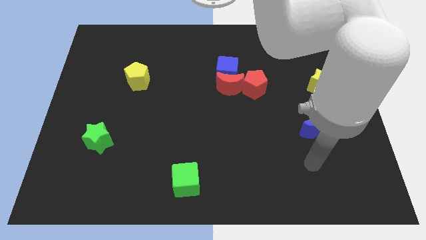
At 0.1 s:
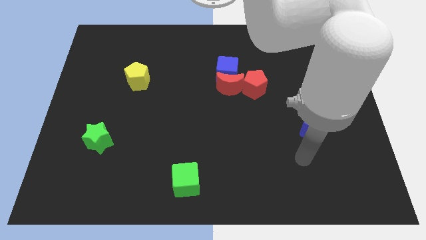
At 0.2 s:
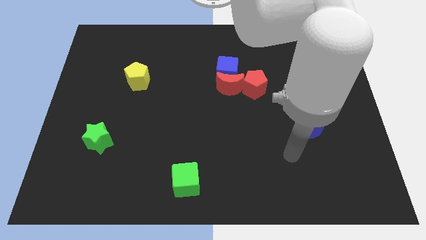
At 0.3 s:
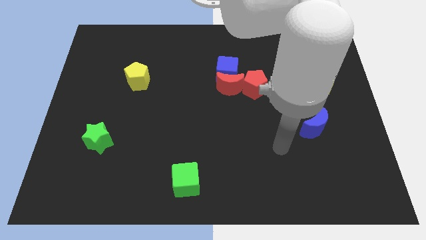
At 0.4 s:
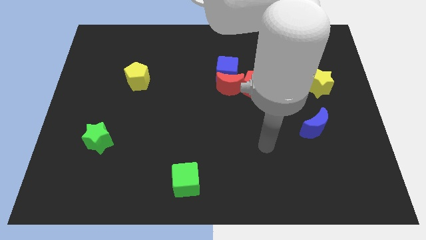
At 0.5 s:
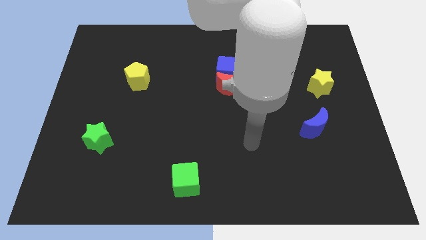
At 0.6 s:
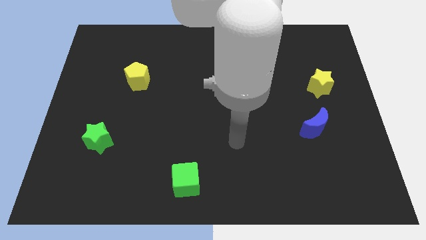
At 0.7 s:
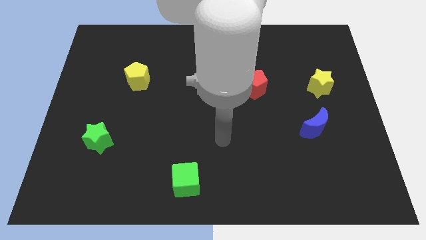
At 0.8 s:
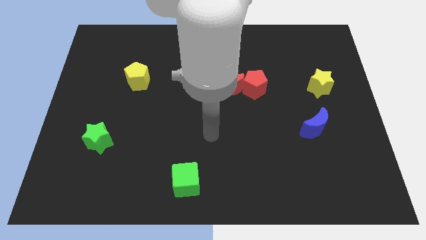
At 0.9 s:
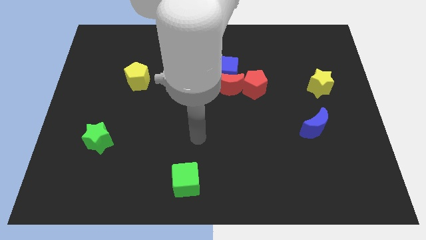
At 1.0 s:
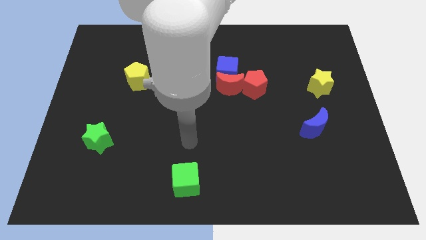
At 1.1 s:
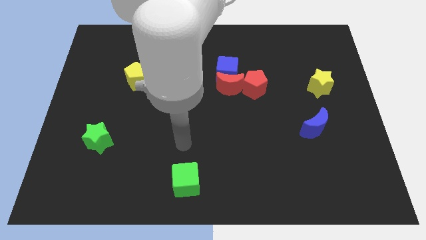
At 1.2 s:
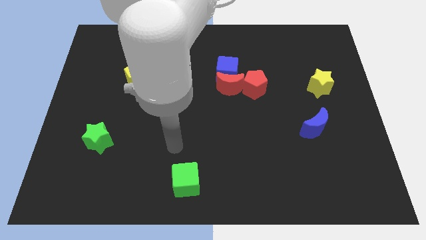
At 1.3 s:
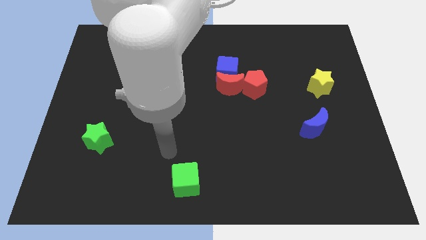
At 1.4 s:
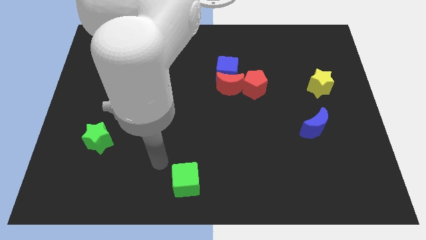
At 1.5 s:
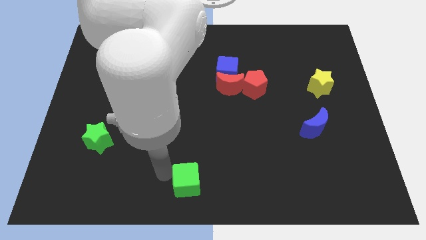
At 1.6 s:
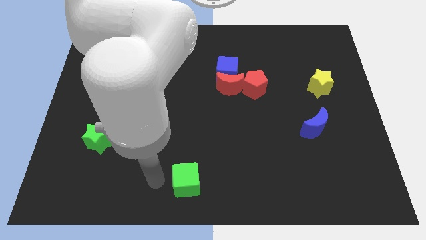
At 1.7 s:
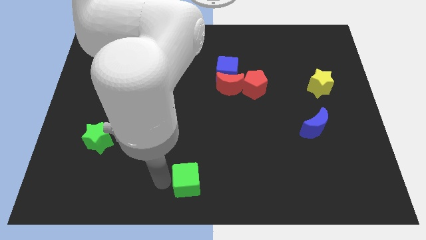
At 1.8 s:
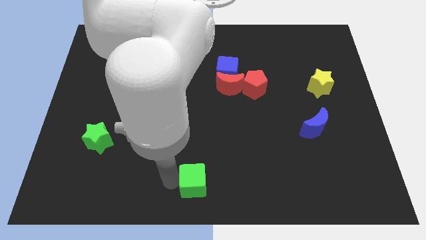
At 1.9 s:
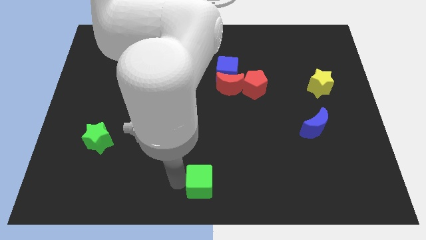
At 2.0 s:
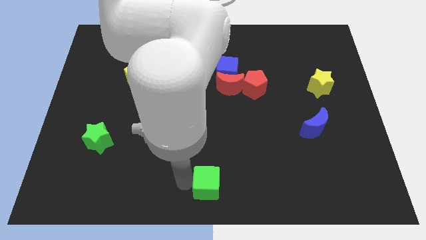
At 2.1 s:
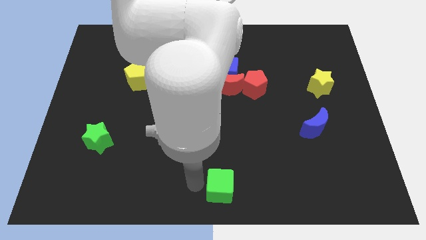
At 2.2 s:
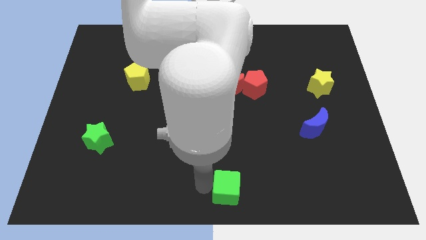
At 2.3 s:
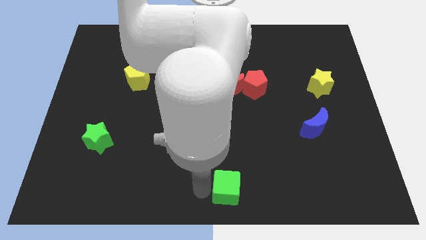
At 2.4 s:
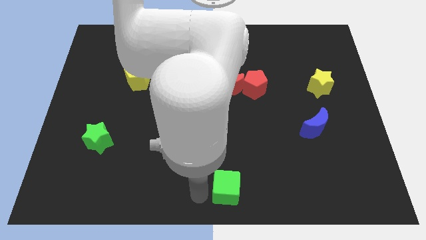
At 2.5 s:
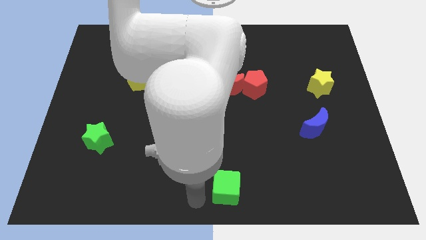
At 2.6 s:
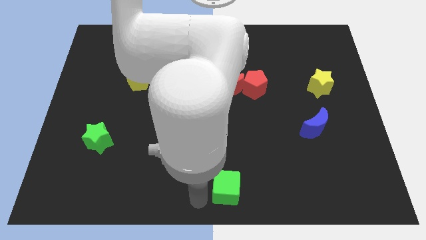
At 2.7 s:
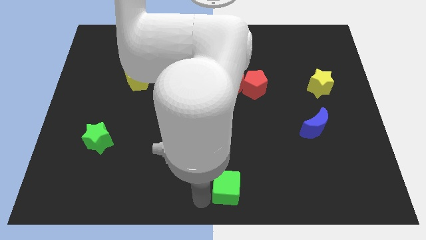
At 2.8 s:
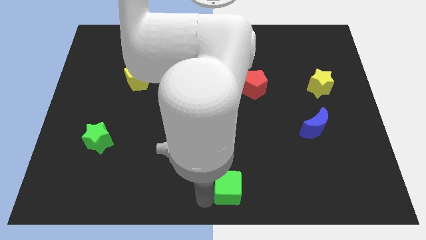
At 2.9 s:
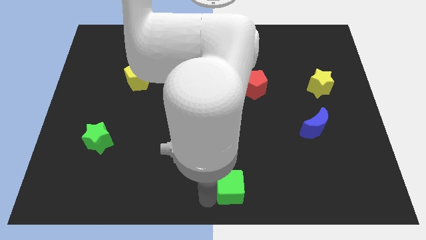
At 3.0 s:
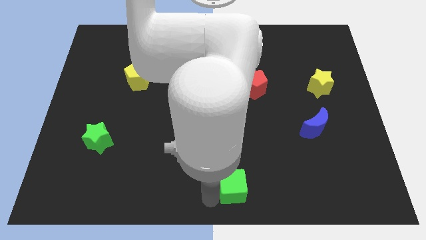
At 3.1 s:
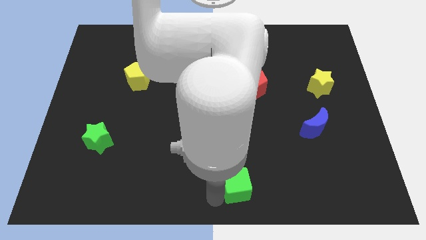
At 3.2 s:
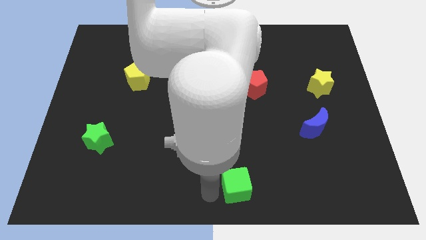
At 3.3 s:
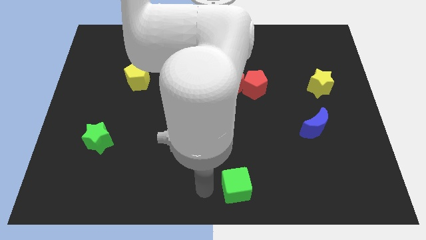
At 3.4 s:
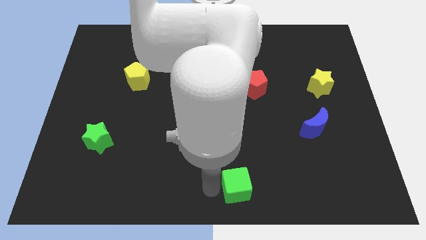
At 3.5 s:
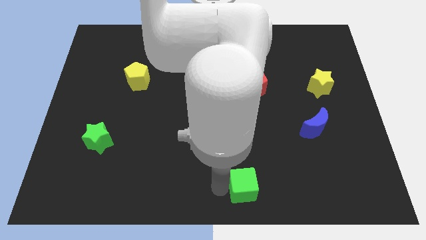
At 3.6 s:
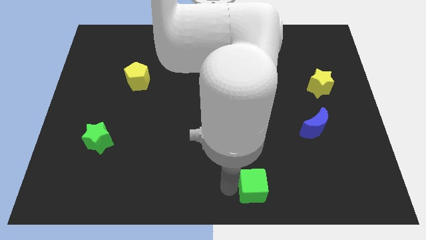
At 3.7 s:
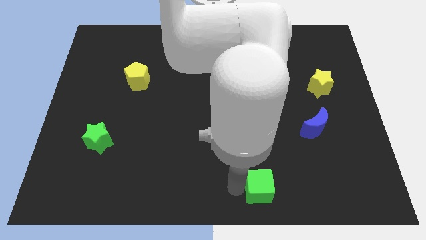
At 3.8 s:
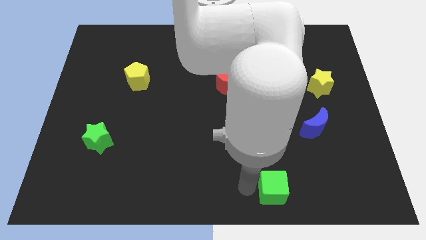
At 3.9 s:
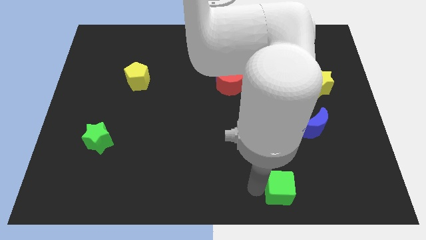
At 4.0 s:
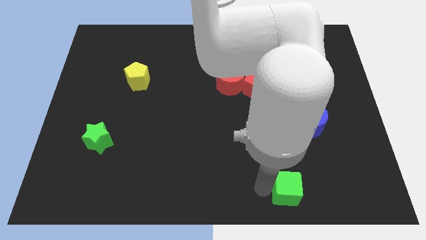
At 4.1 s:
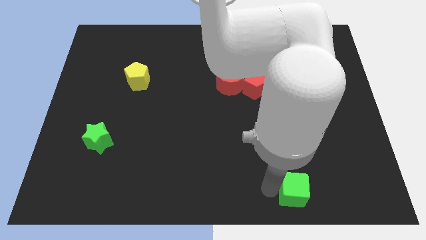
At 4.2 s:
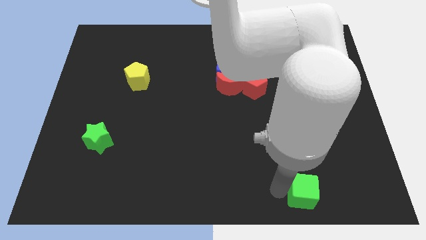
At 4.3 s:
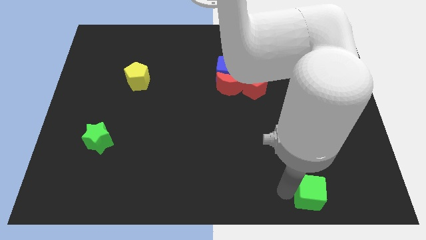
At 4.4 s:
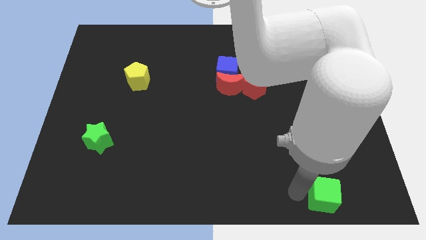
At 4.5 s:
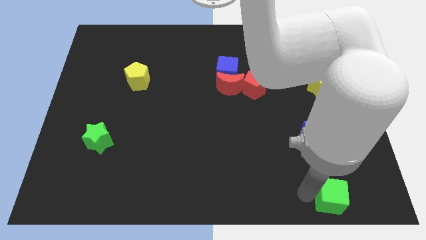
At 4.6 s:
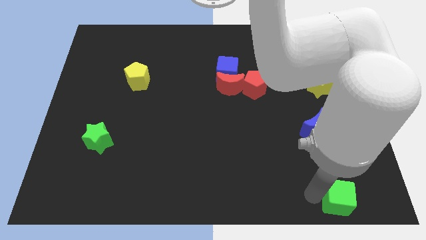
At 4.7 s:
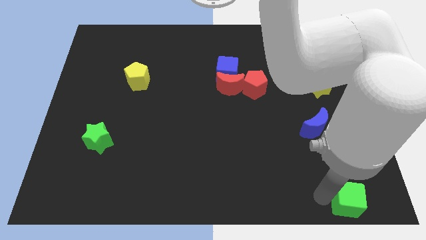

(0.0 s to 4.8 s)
slide the green cube to the bottom right of the board

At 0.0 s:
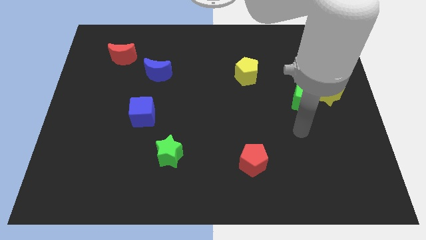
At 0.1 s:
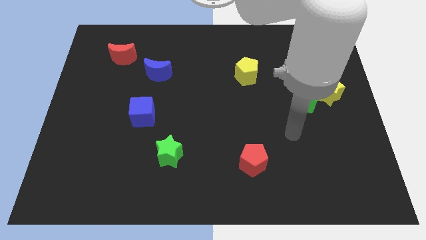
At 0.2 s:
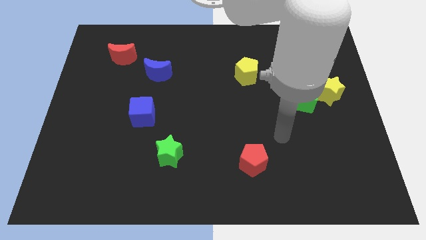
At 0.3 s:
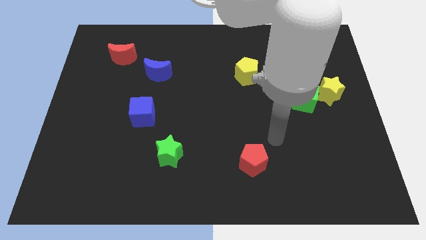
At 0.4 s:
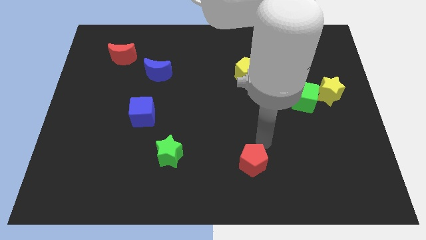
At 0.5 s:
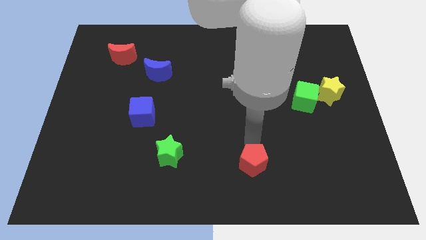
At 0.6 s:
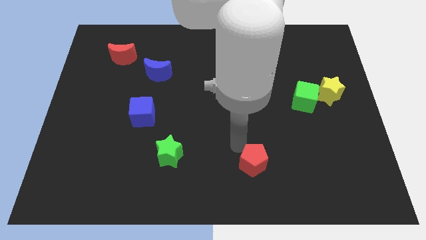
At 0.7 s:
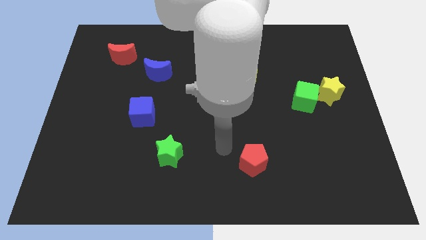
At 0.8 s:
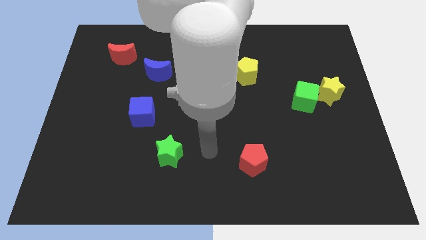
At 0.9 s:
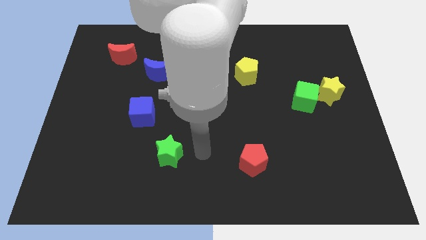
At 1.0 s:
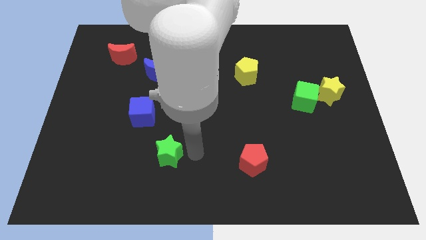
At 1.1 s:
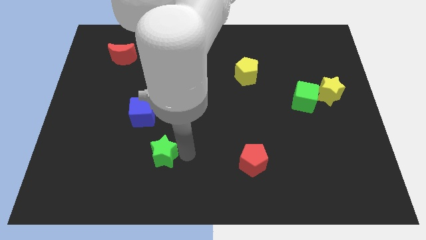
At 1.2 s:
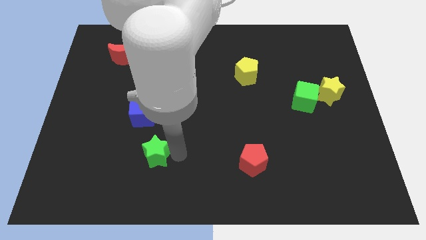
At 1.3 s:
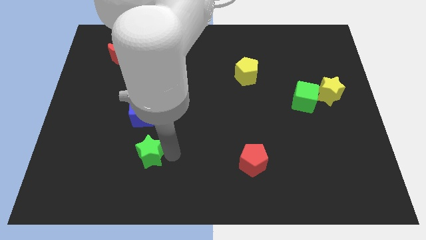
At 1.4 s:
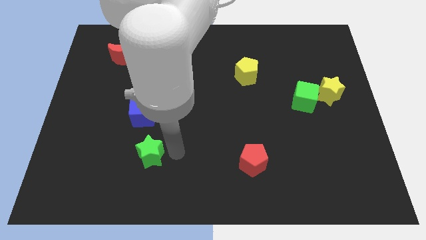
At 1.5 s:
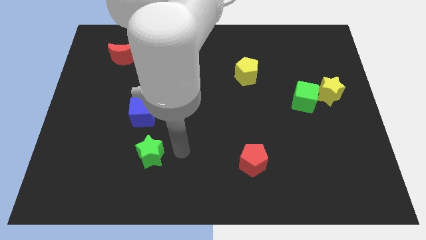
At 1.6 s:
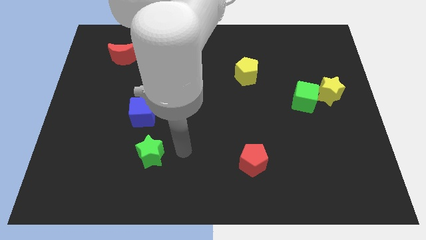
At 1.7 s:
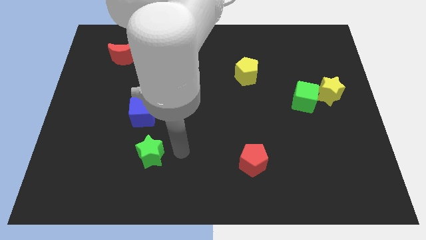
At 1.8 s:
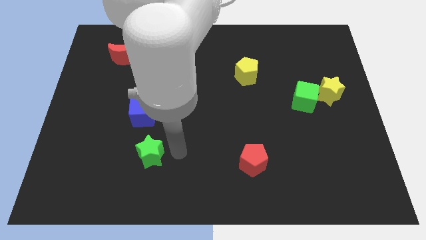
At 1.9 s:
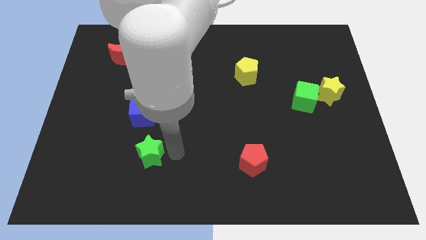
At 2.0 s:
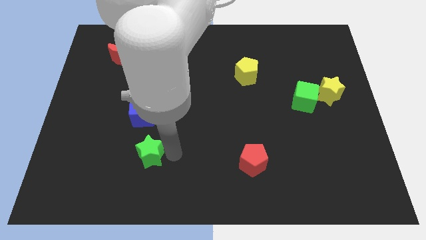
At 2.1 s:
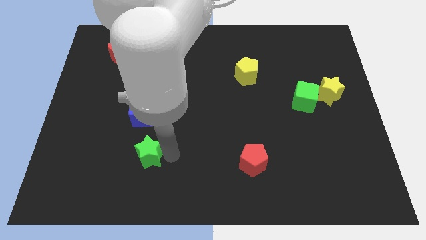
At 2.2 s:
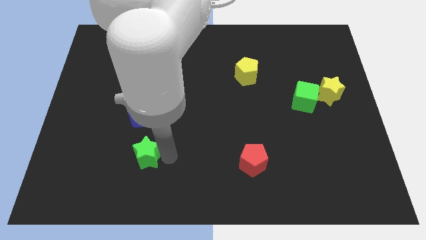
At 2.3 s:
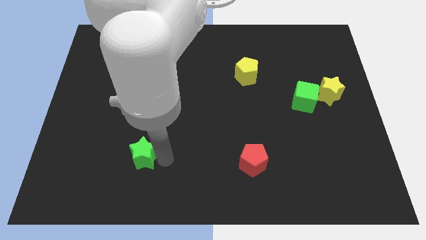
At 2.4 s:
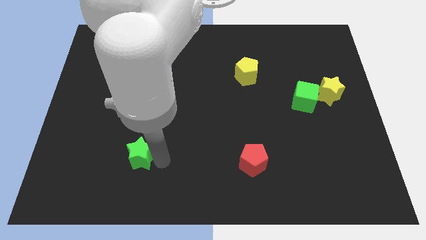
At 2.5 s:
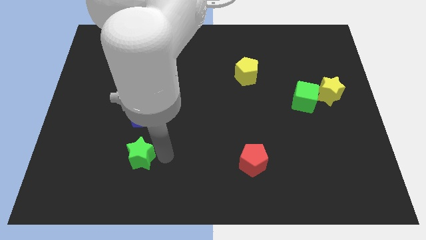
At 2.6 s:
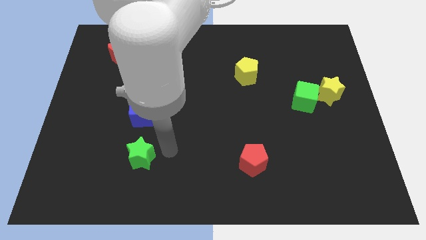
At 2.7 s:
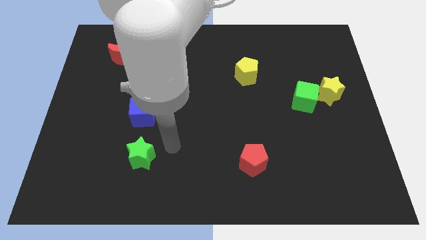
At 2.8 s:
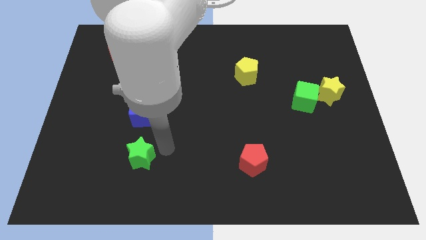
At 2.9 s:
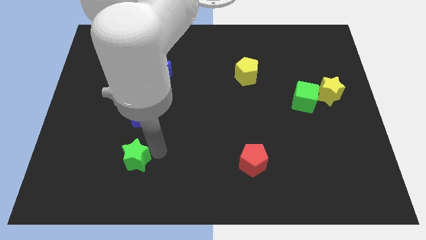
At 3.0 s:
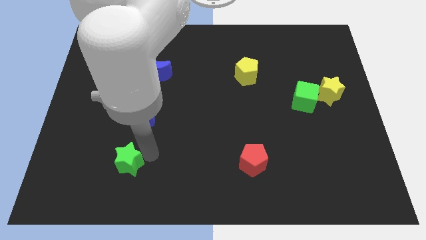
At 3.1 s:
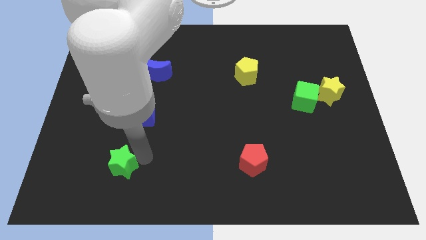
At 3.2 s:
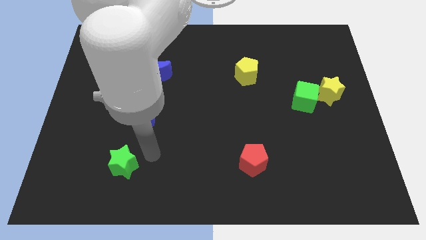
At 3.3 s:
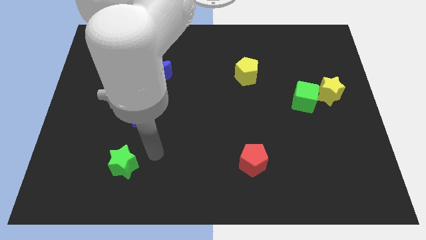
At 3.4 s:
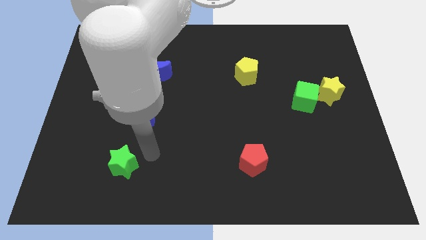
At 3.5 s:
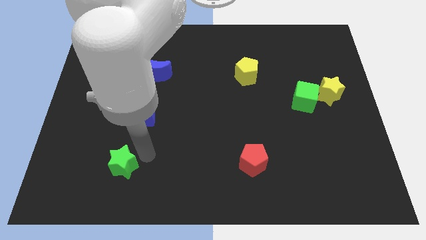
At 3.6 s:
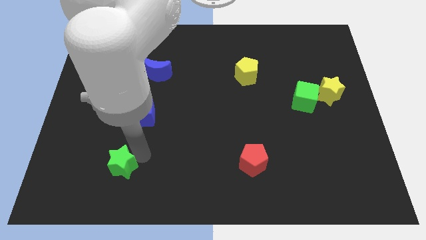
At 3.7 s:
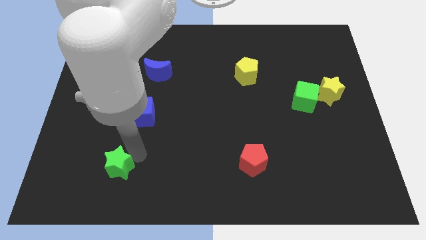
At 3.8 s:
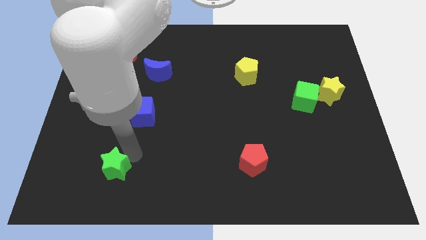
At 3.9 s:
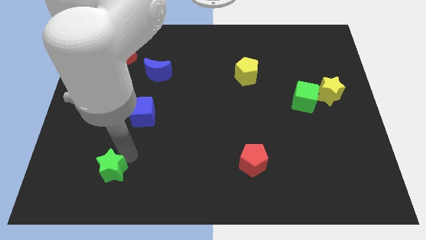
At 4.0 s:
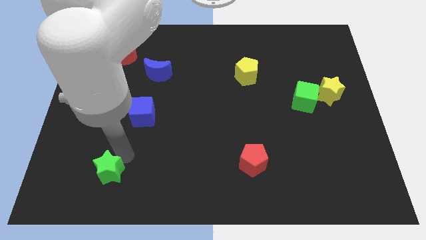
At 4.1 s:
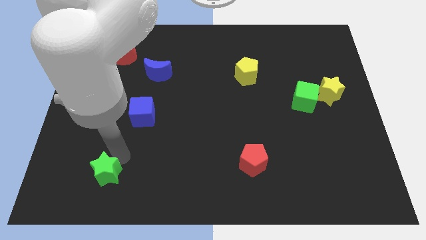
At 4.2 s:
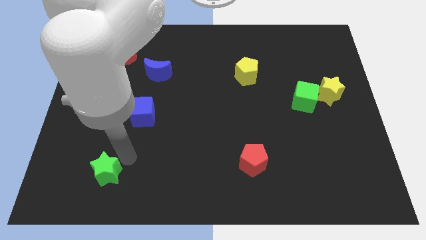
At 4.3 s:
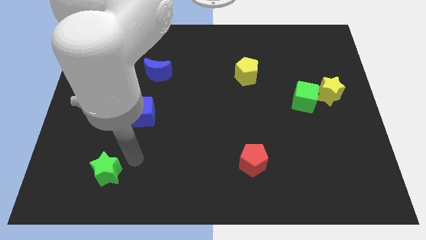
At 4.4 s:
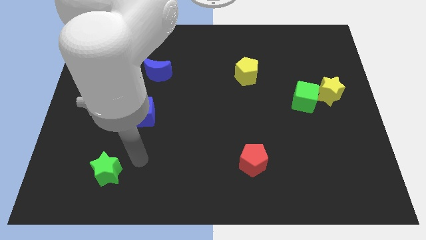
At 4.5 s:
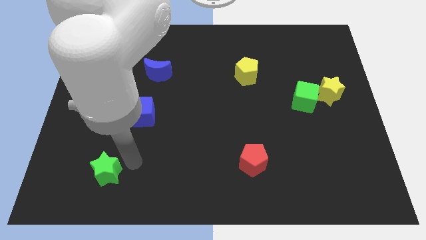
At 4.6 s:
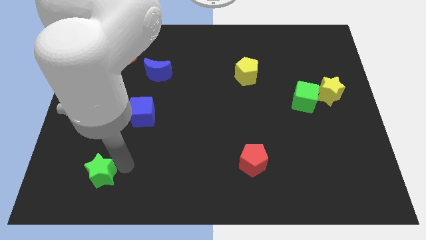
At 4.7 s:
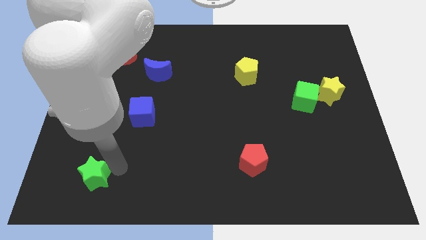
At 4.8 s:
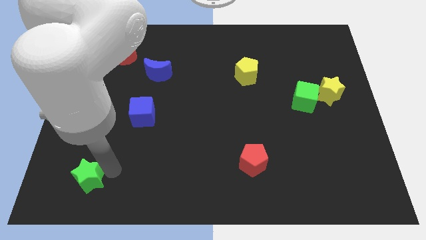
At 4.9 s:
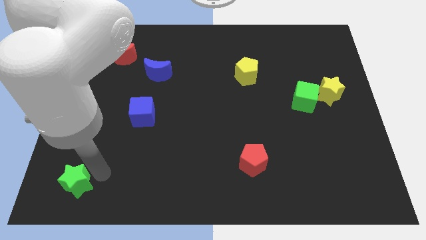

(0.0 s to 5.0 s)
slide the green star to the bottom left of the board
